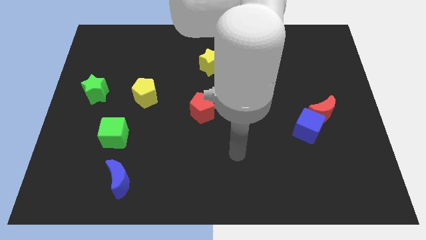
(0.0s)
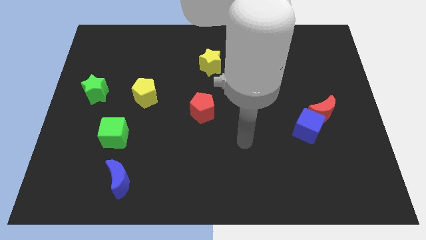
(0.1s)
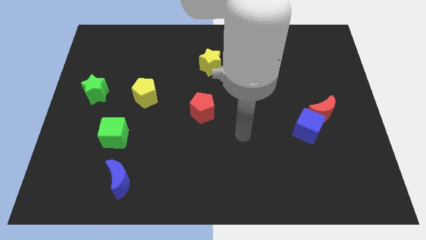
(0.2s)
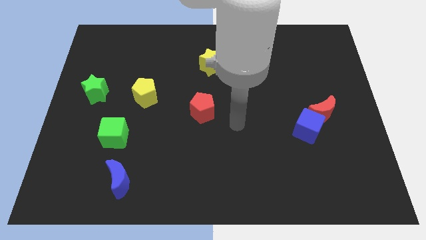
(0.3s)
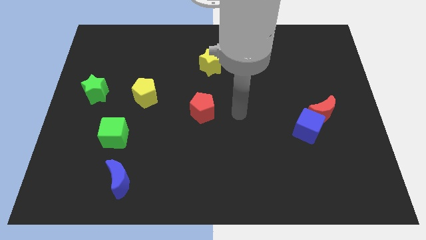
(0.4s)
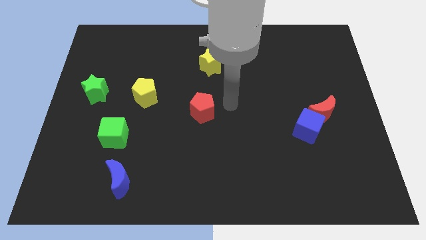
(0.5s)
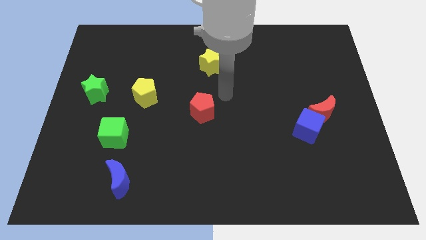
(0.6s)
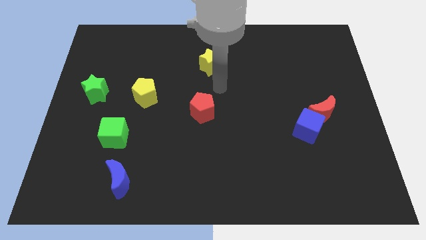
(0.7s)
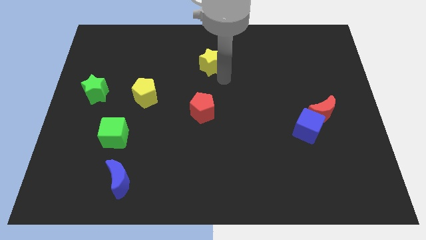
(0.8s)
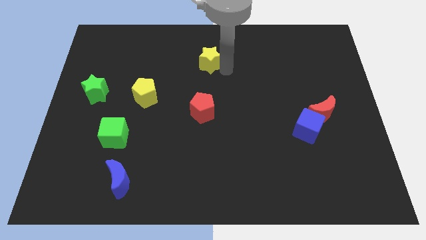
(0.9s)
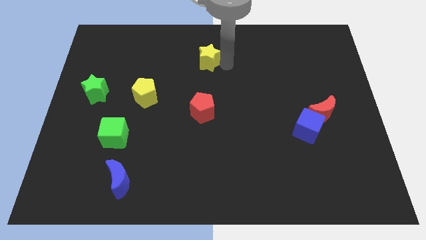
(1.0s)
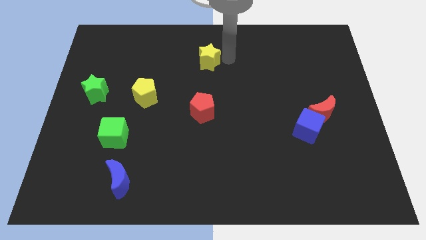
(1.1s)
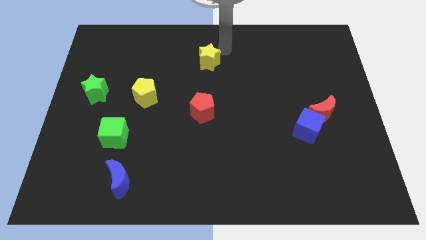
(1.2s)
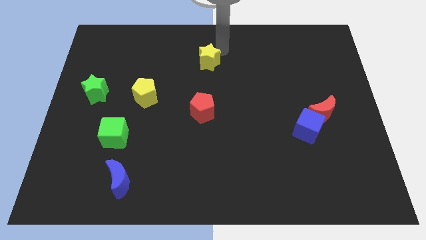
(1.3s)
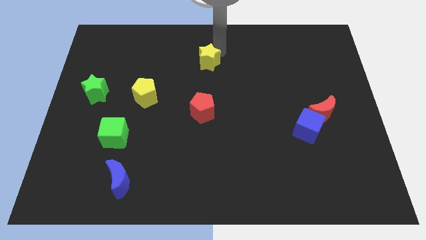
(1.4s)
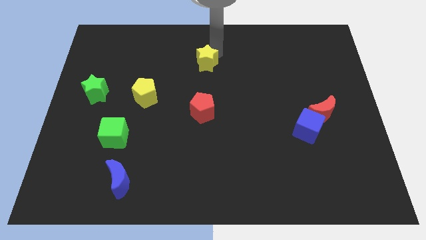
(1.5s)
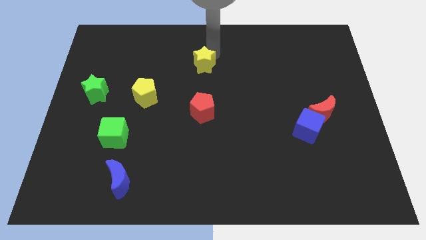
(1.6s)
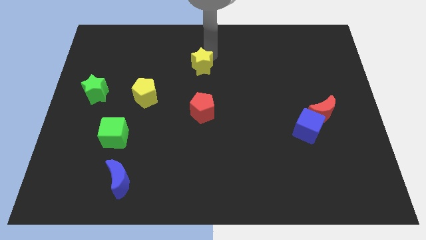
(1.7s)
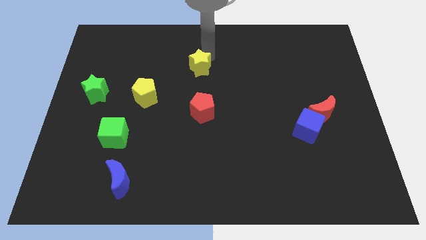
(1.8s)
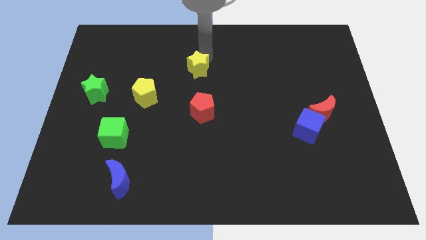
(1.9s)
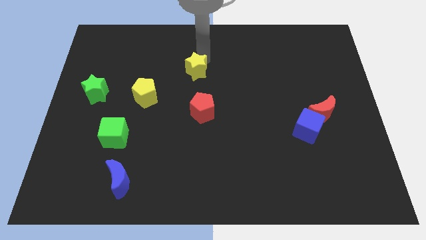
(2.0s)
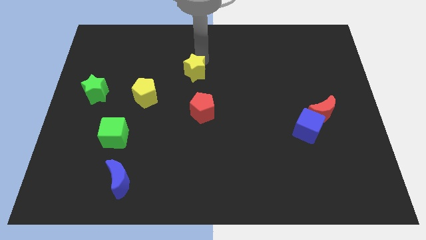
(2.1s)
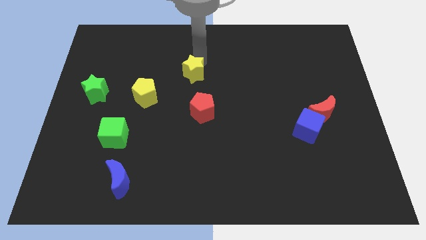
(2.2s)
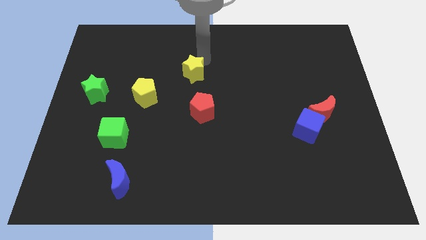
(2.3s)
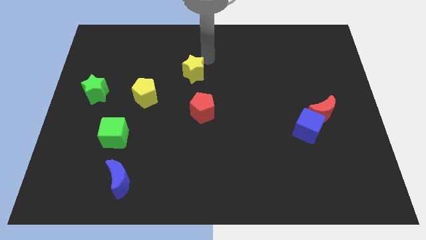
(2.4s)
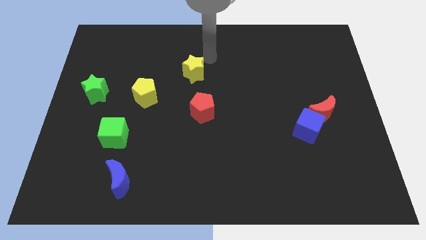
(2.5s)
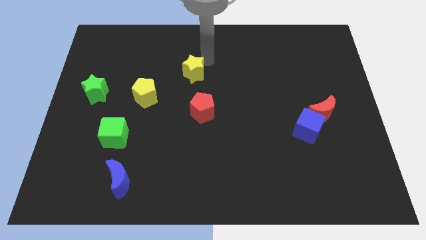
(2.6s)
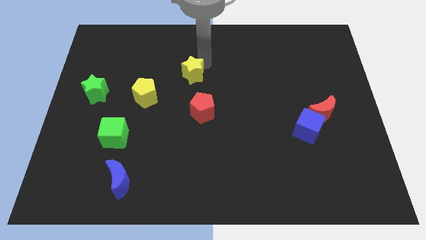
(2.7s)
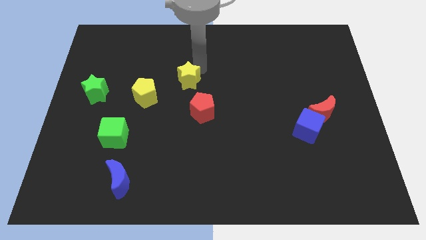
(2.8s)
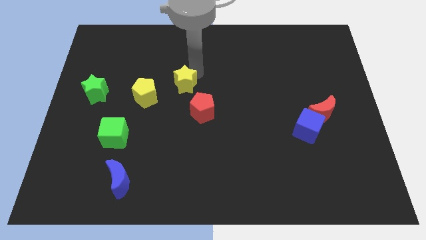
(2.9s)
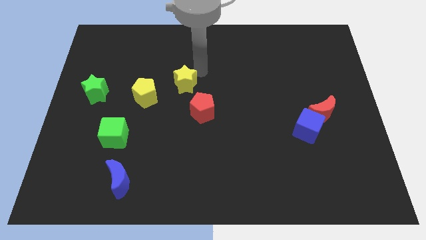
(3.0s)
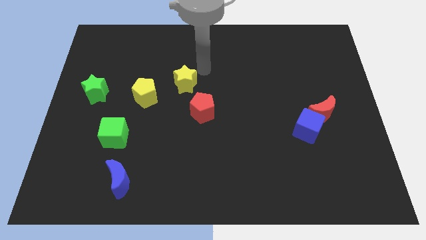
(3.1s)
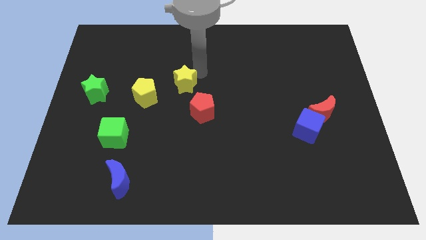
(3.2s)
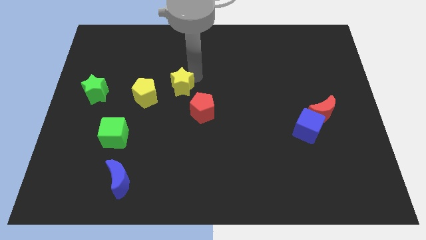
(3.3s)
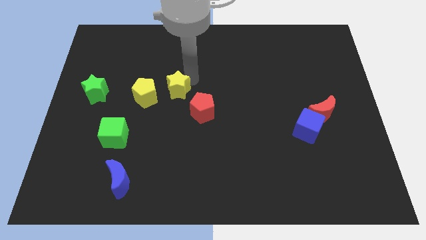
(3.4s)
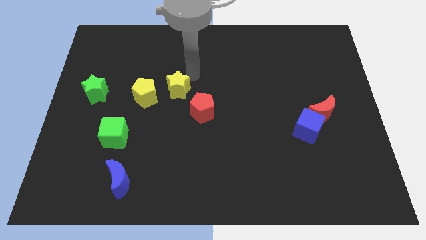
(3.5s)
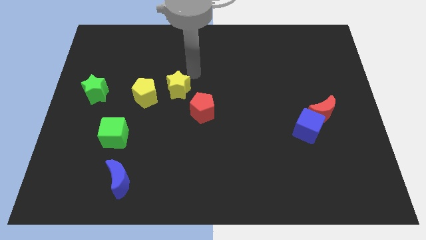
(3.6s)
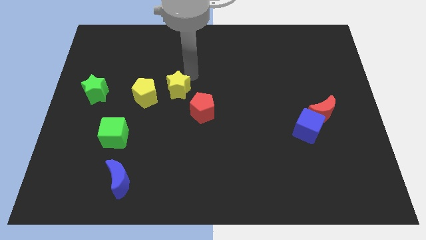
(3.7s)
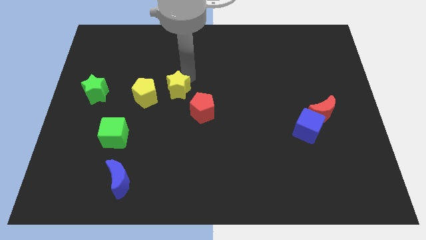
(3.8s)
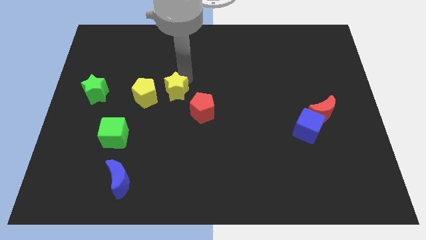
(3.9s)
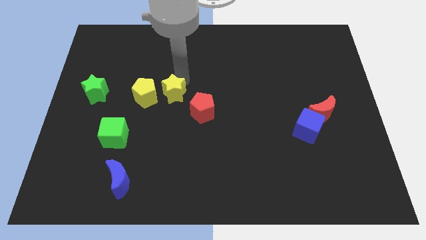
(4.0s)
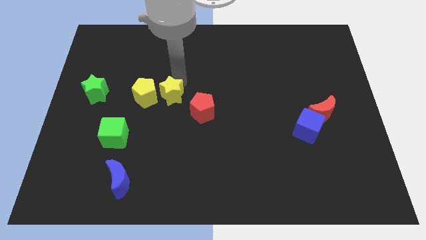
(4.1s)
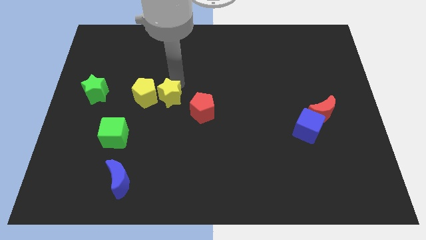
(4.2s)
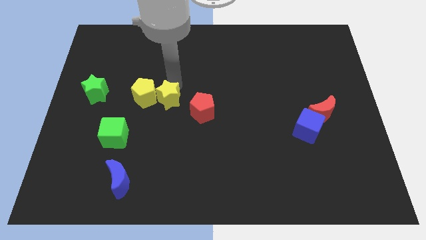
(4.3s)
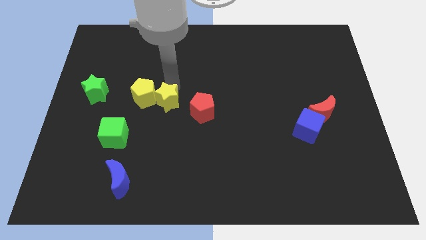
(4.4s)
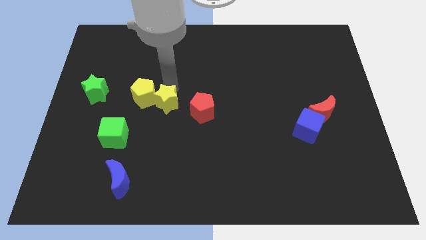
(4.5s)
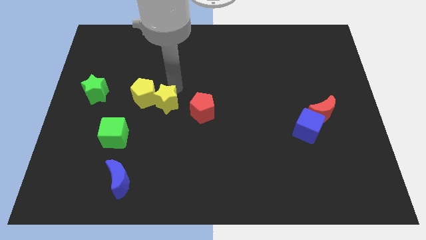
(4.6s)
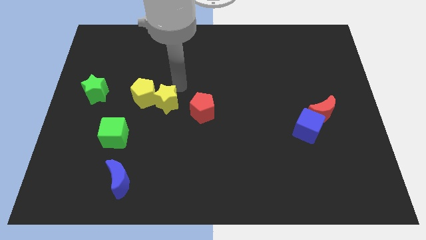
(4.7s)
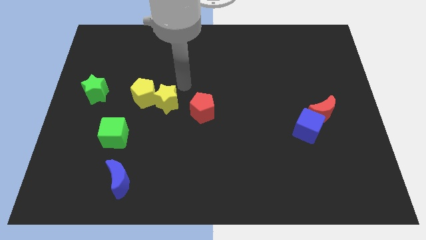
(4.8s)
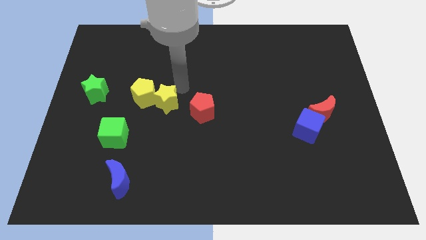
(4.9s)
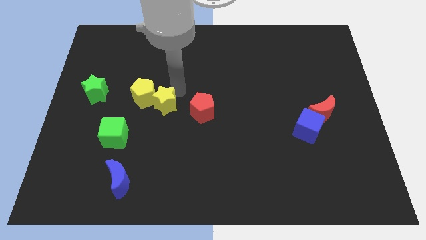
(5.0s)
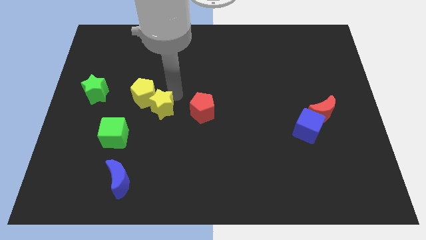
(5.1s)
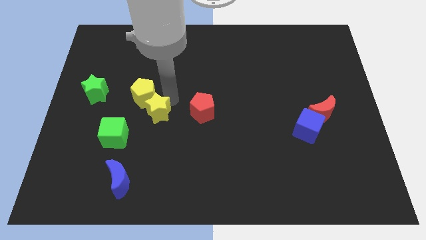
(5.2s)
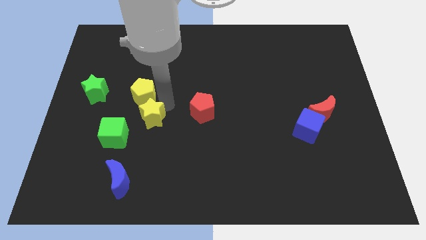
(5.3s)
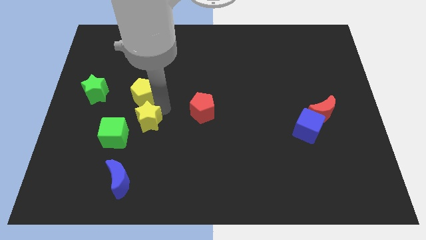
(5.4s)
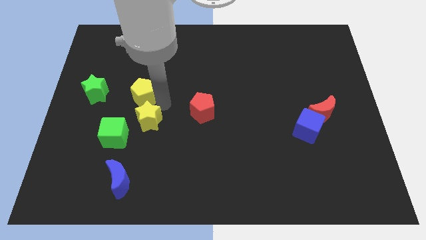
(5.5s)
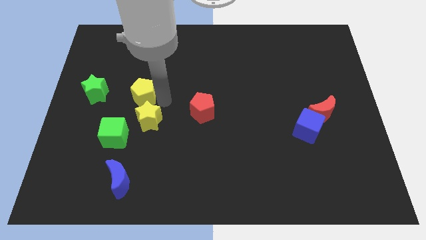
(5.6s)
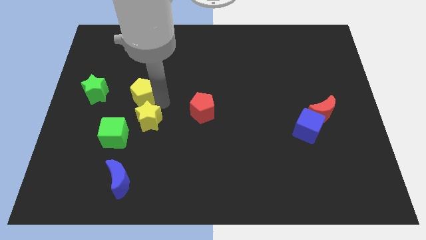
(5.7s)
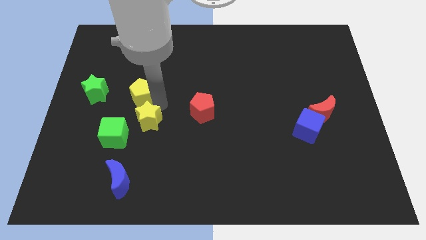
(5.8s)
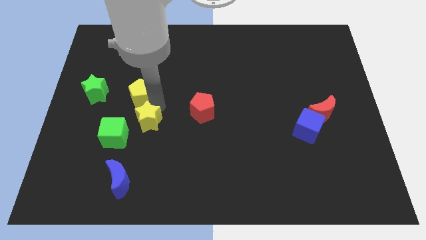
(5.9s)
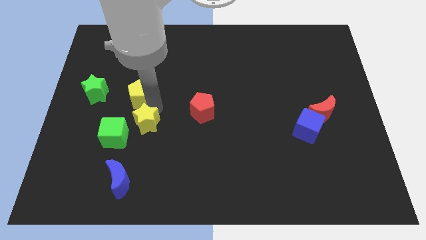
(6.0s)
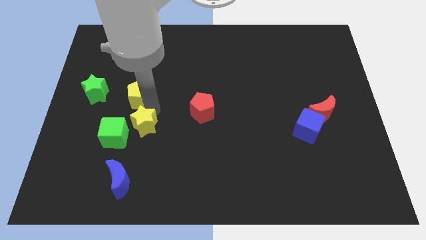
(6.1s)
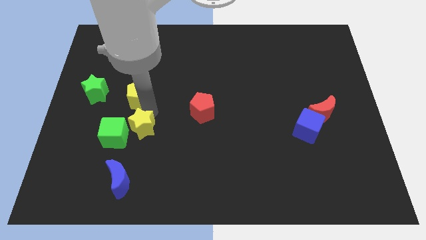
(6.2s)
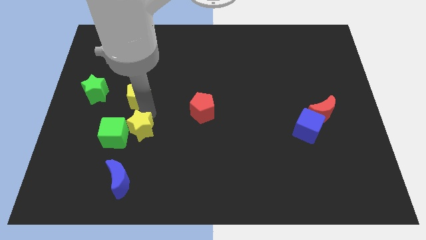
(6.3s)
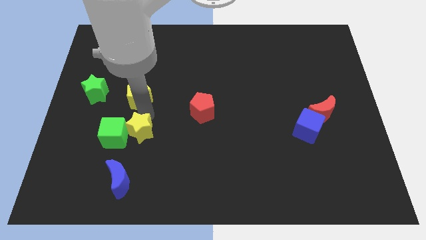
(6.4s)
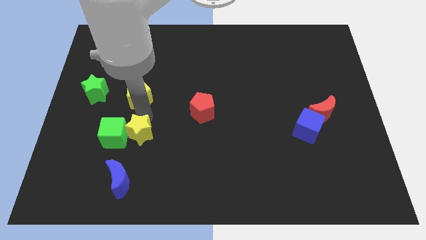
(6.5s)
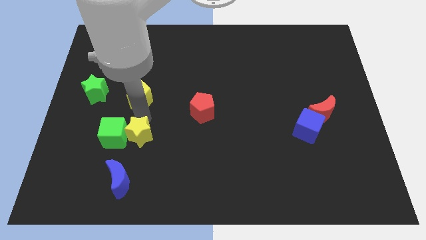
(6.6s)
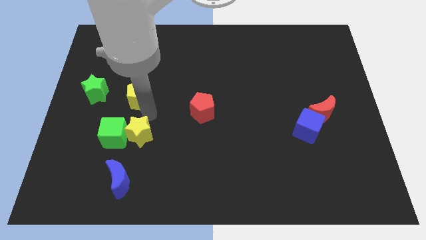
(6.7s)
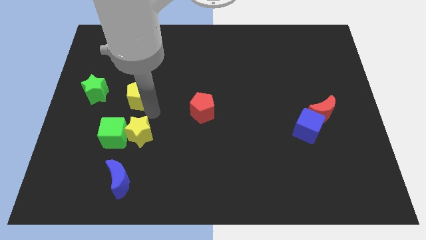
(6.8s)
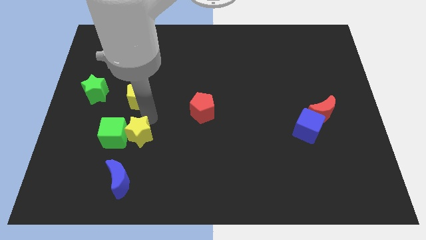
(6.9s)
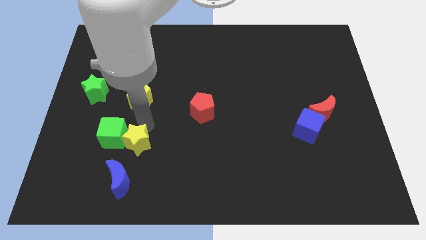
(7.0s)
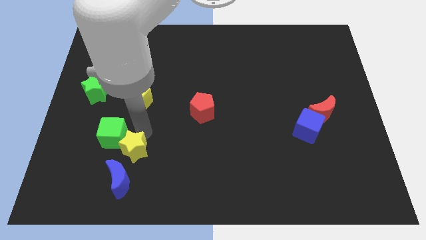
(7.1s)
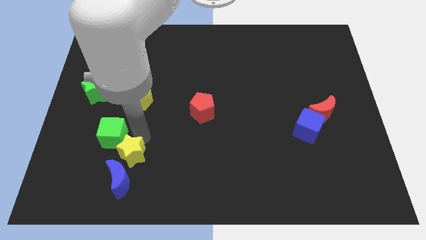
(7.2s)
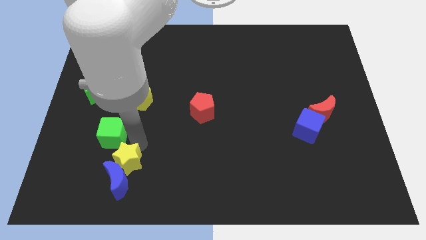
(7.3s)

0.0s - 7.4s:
push the yellow star to the blue moon
